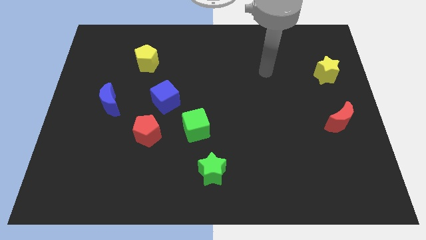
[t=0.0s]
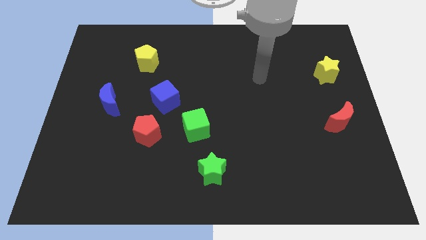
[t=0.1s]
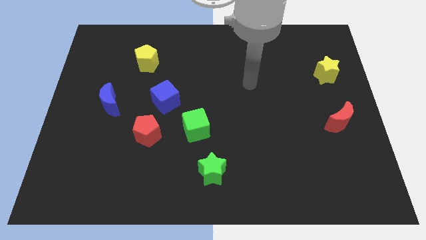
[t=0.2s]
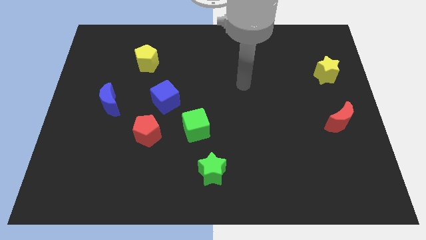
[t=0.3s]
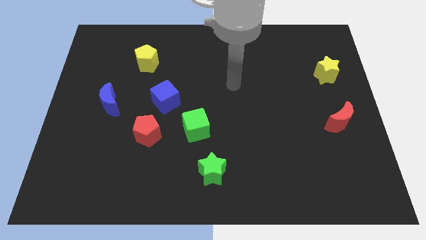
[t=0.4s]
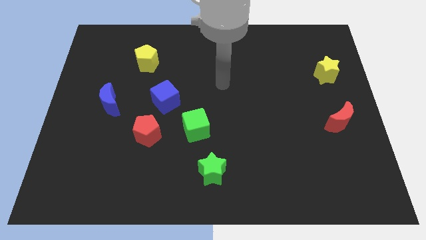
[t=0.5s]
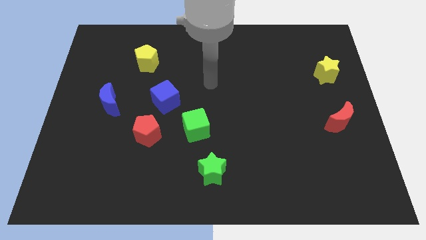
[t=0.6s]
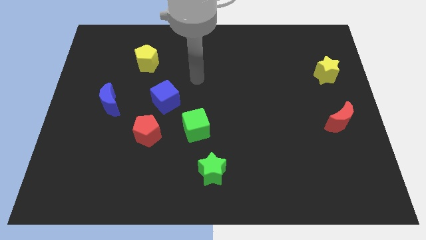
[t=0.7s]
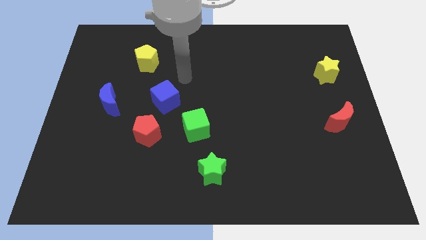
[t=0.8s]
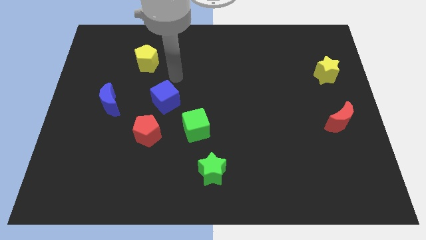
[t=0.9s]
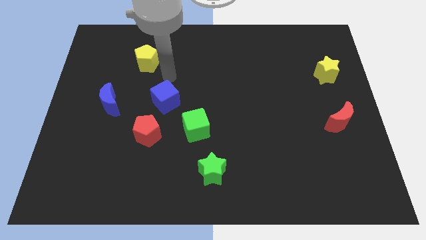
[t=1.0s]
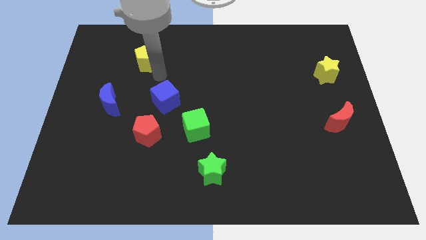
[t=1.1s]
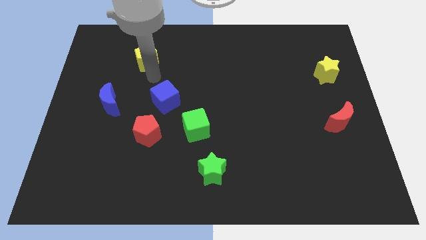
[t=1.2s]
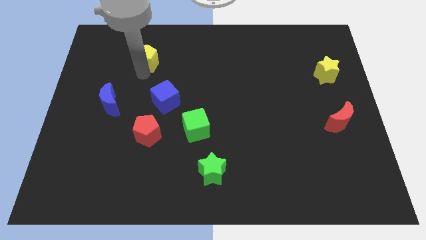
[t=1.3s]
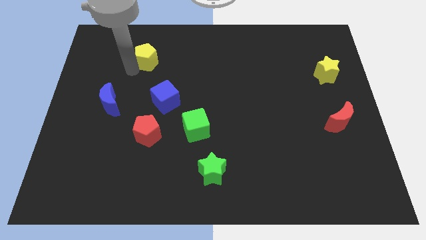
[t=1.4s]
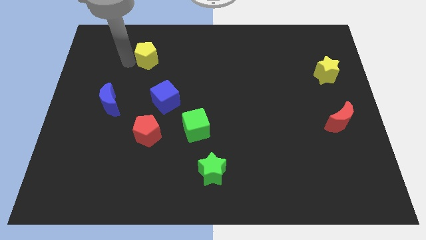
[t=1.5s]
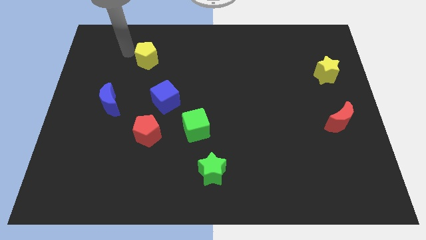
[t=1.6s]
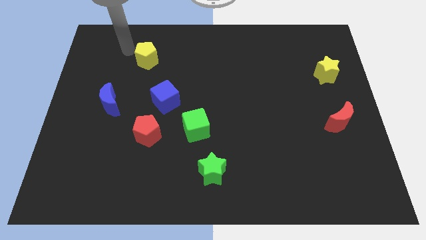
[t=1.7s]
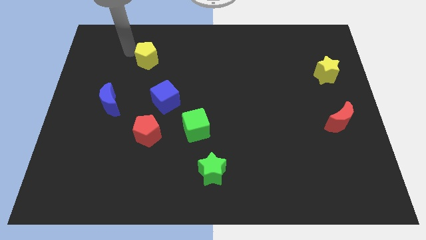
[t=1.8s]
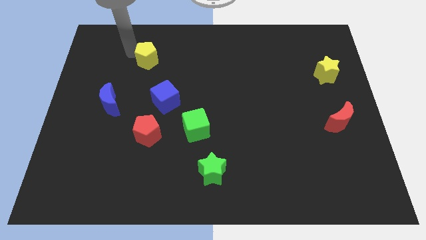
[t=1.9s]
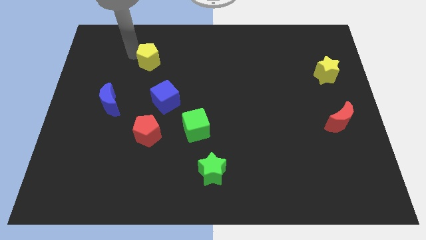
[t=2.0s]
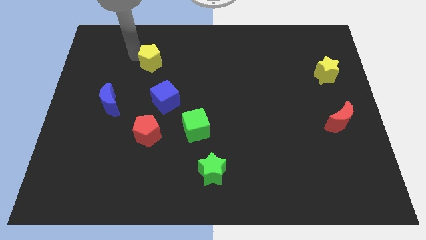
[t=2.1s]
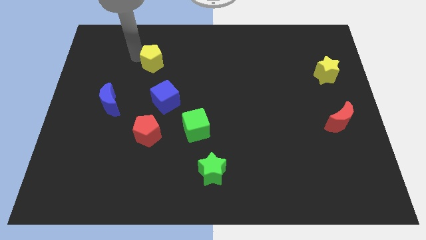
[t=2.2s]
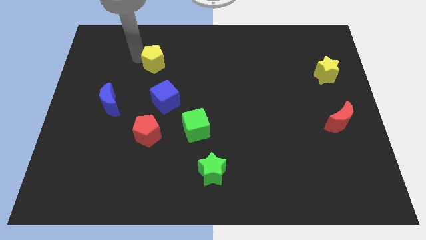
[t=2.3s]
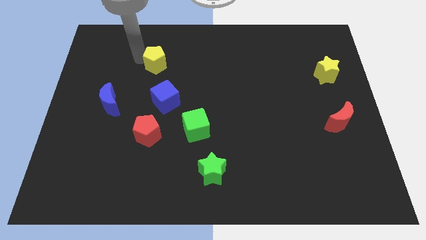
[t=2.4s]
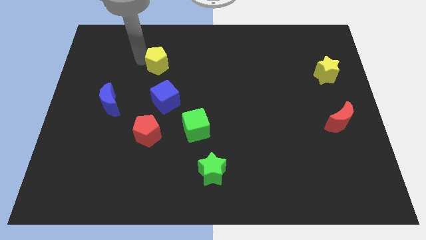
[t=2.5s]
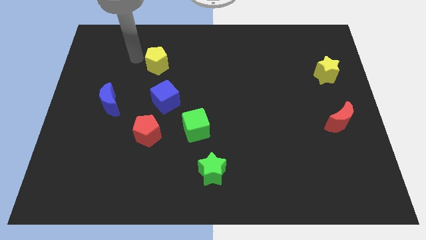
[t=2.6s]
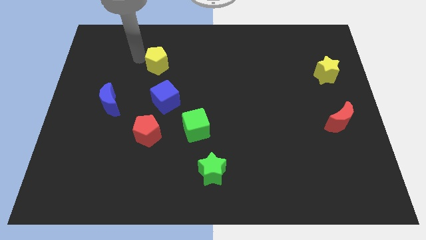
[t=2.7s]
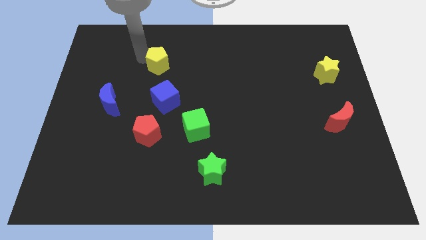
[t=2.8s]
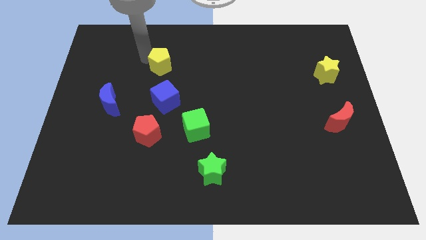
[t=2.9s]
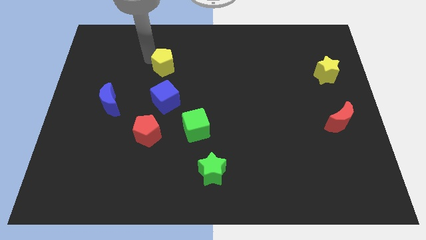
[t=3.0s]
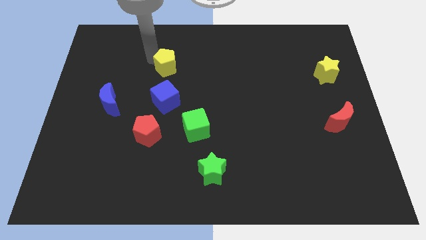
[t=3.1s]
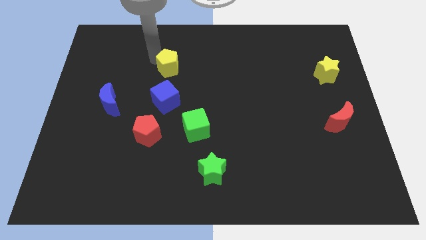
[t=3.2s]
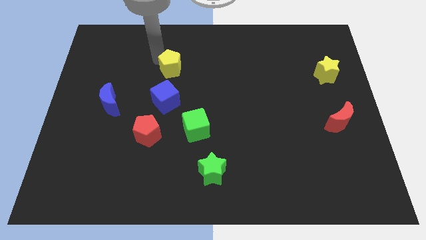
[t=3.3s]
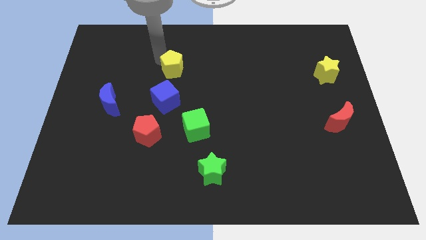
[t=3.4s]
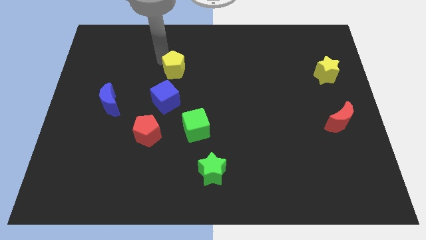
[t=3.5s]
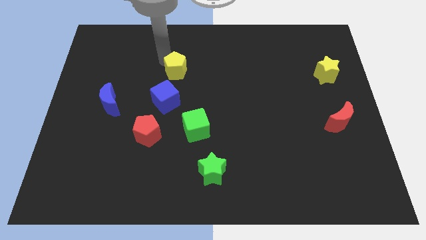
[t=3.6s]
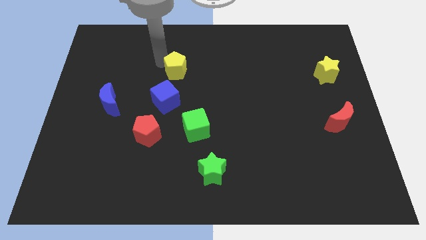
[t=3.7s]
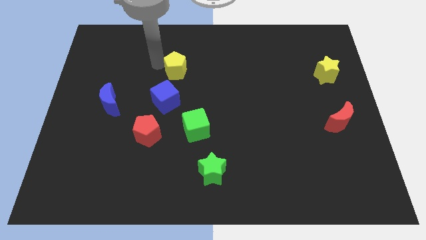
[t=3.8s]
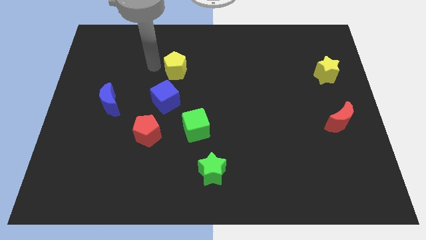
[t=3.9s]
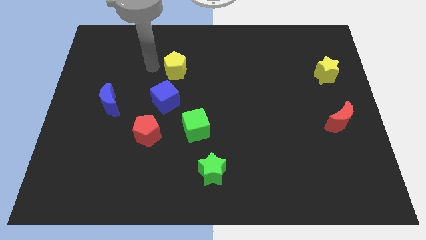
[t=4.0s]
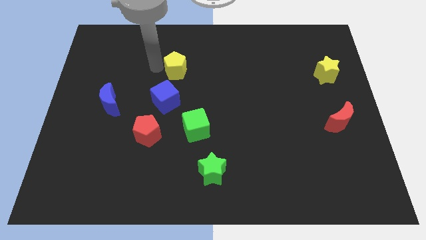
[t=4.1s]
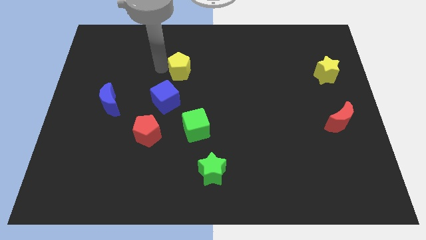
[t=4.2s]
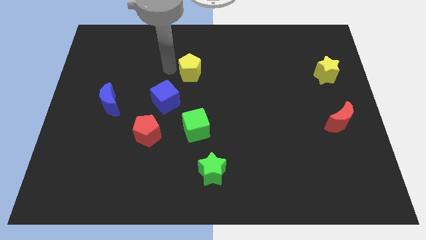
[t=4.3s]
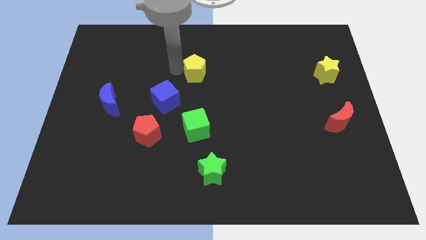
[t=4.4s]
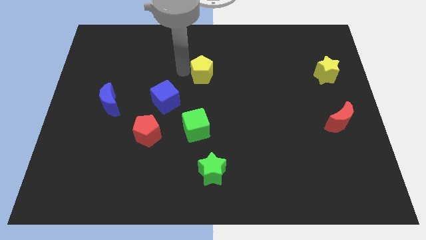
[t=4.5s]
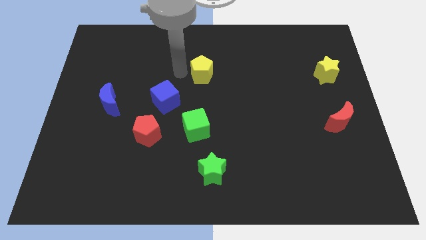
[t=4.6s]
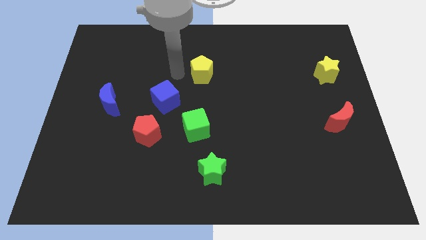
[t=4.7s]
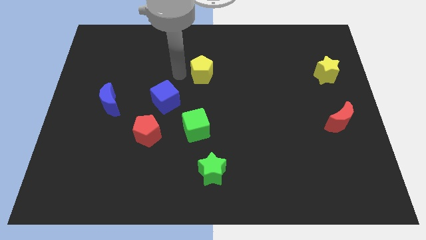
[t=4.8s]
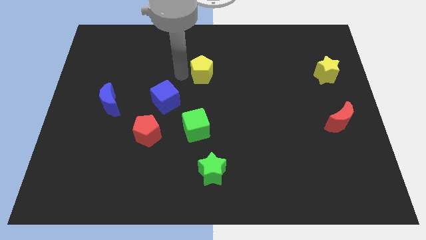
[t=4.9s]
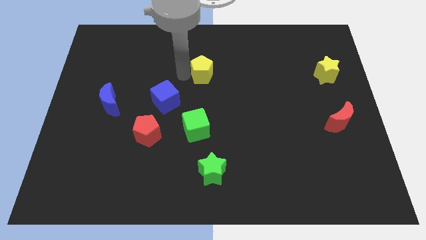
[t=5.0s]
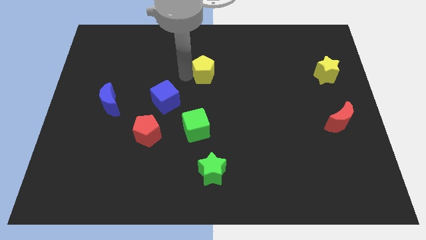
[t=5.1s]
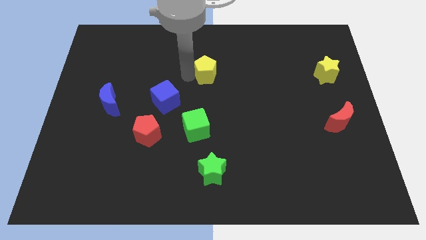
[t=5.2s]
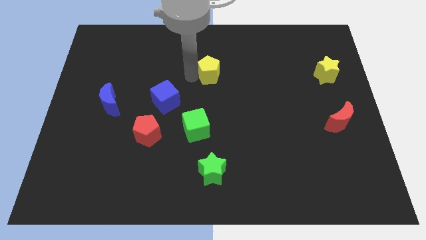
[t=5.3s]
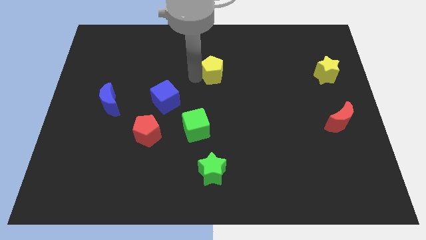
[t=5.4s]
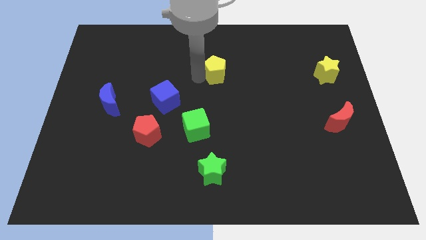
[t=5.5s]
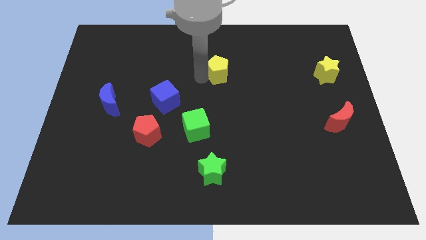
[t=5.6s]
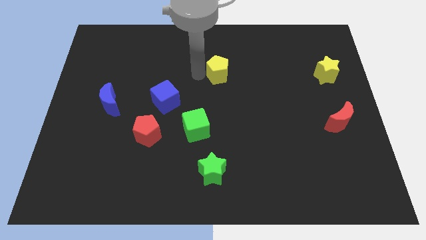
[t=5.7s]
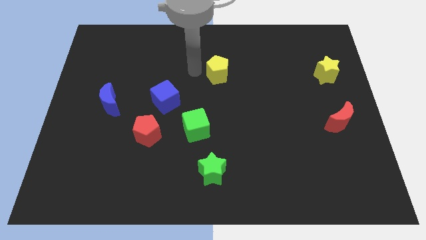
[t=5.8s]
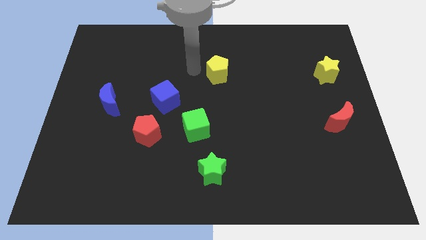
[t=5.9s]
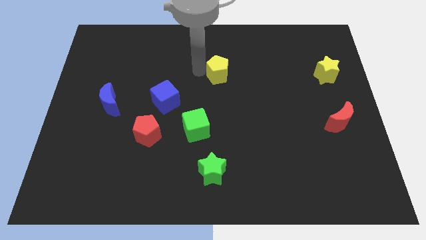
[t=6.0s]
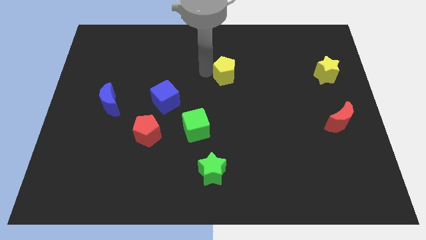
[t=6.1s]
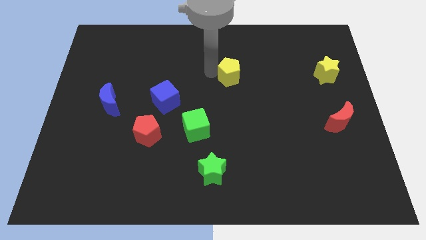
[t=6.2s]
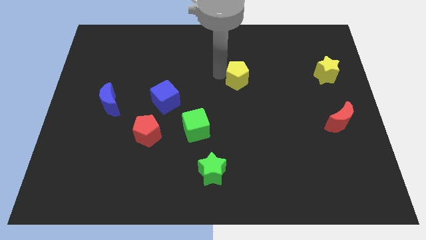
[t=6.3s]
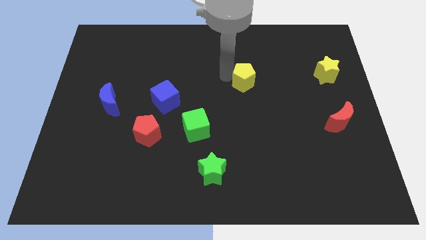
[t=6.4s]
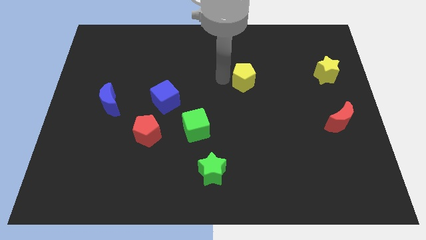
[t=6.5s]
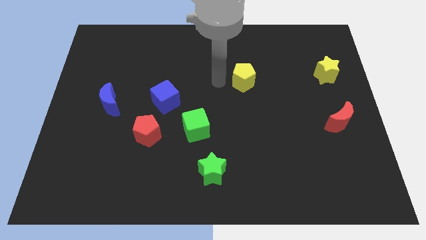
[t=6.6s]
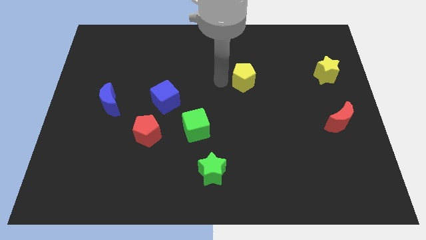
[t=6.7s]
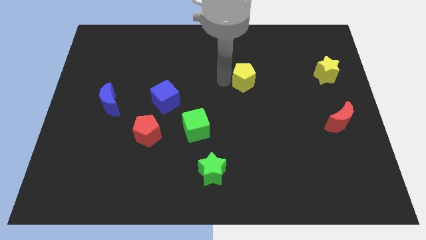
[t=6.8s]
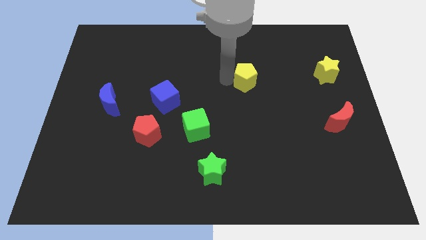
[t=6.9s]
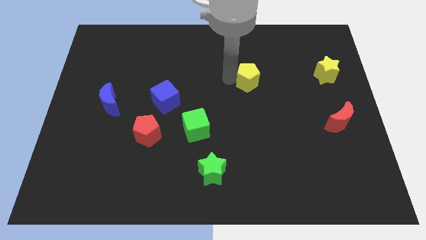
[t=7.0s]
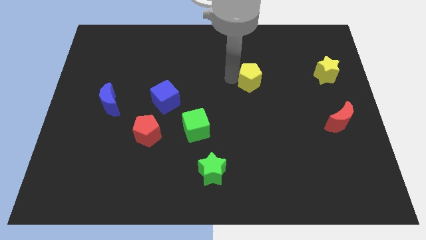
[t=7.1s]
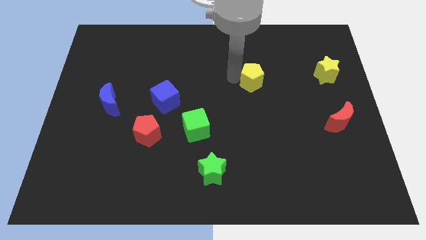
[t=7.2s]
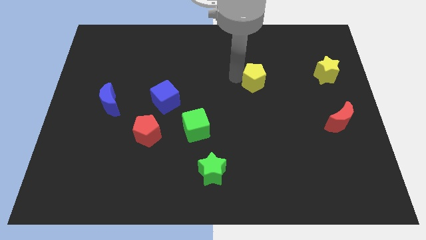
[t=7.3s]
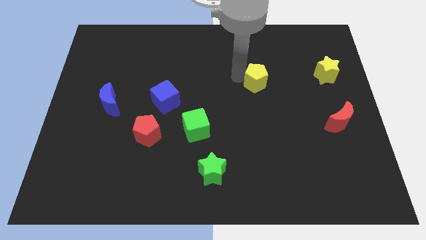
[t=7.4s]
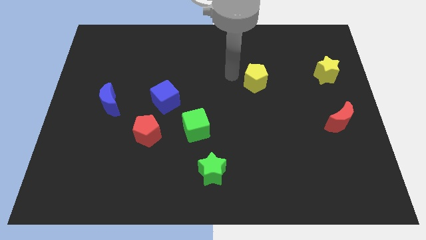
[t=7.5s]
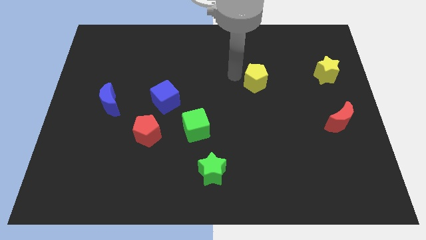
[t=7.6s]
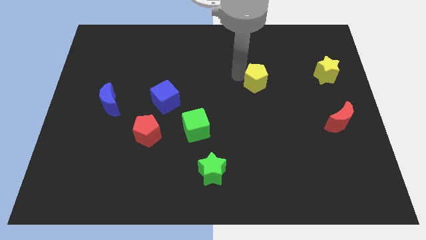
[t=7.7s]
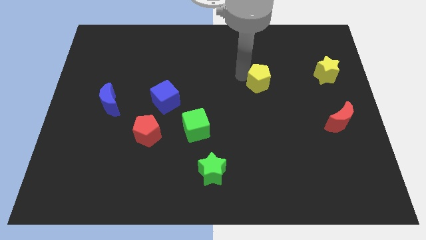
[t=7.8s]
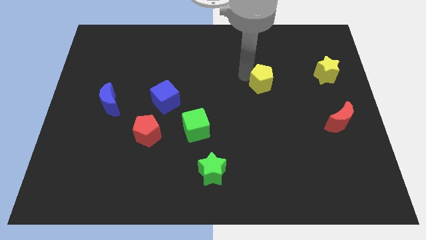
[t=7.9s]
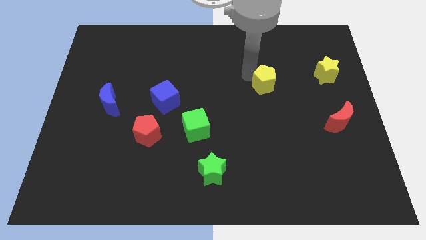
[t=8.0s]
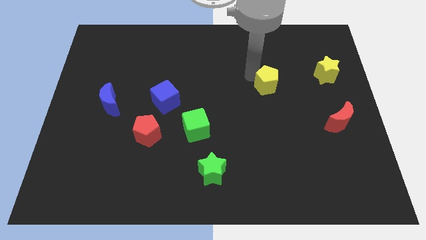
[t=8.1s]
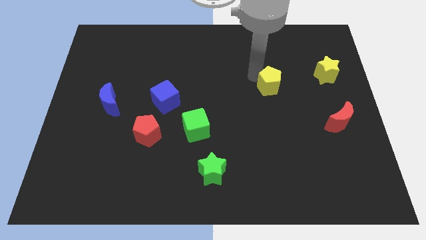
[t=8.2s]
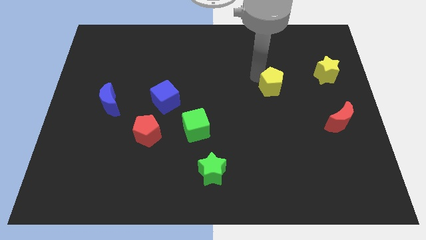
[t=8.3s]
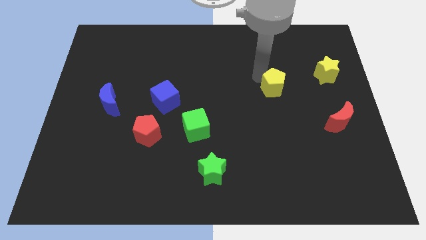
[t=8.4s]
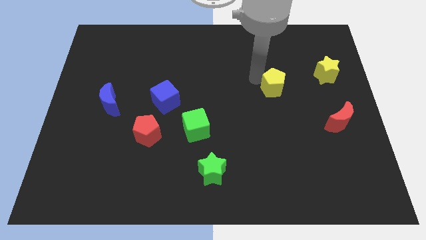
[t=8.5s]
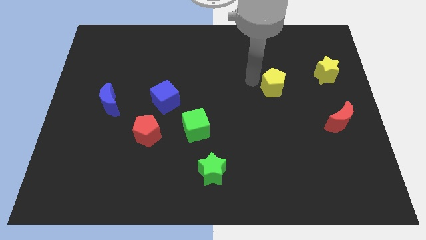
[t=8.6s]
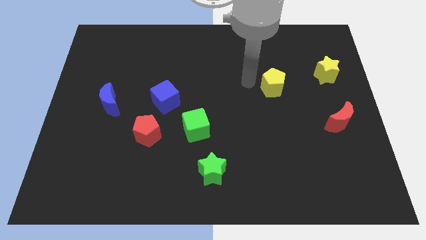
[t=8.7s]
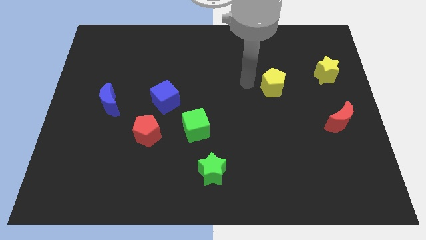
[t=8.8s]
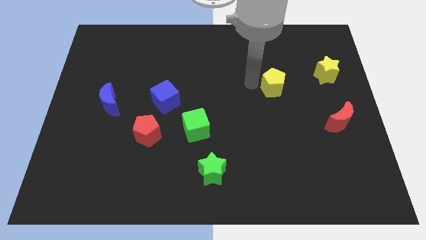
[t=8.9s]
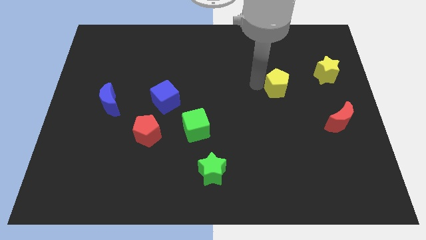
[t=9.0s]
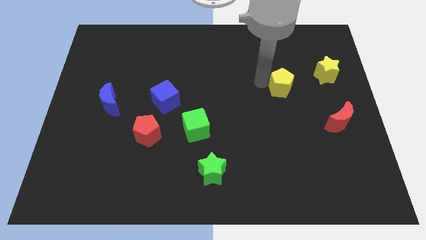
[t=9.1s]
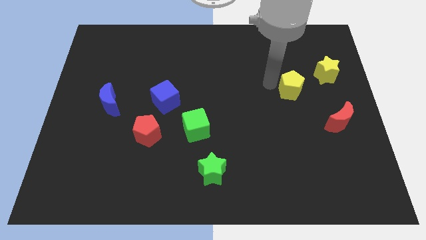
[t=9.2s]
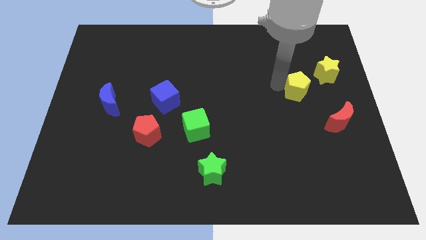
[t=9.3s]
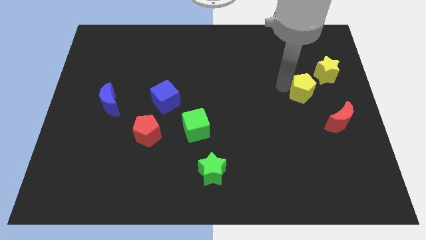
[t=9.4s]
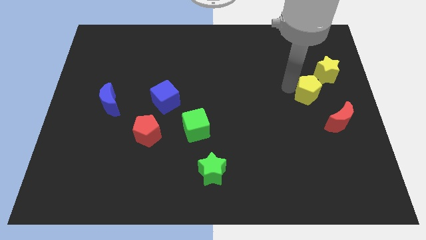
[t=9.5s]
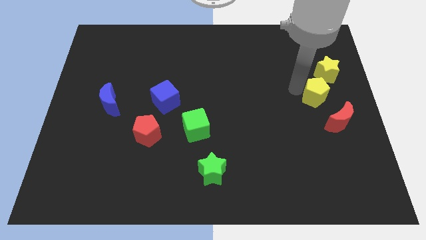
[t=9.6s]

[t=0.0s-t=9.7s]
move the yellow pentagon to the bottom of the yellow star
